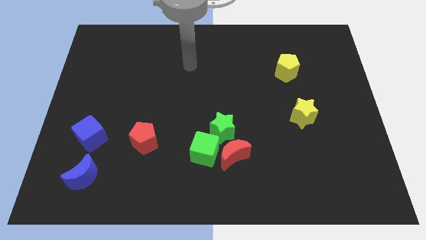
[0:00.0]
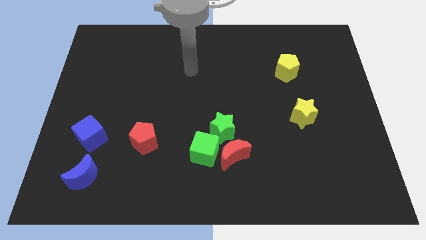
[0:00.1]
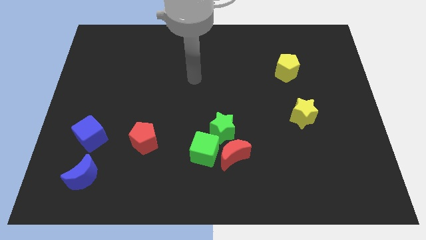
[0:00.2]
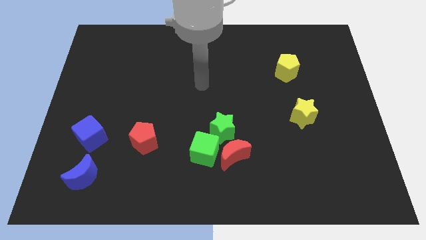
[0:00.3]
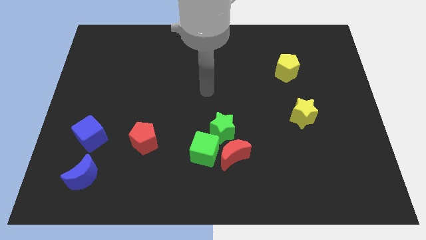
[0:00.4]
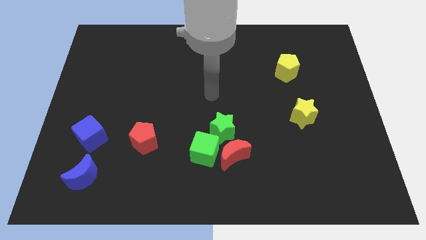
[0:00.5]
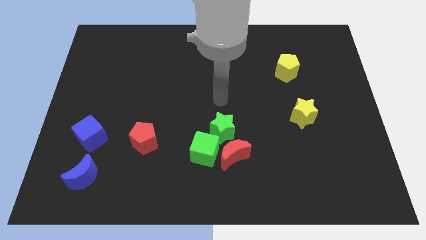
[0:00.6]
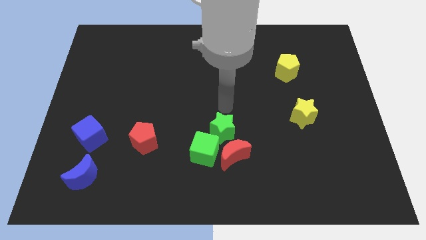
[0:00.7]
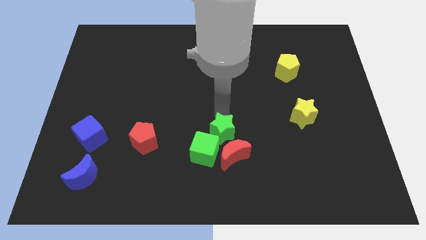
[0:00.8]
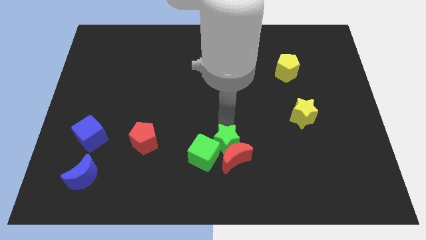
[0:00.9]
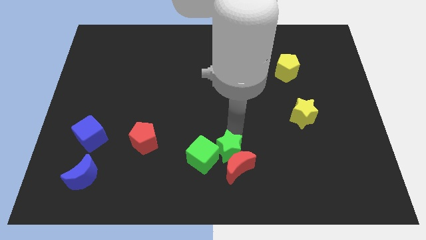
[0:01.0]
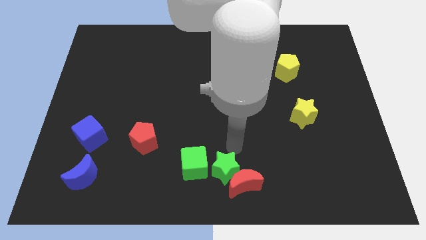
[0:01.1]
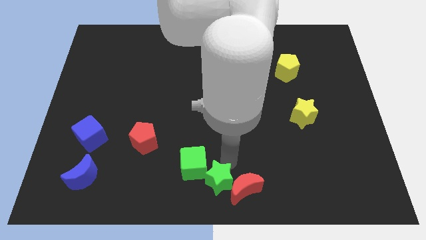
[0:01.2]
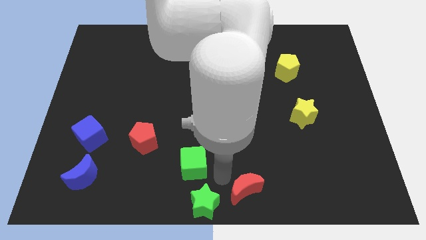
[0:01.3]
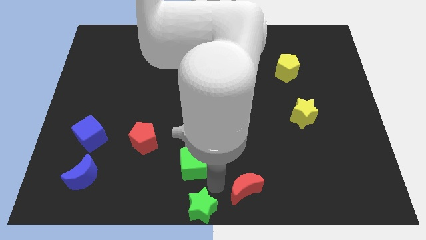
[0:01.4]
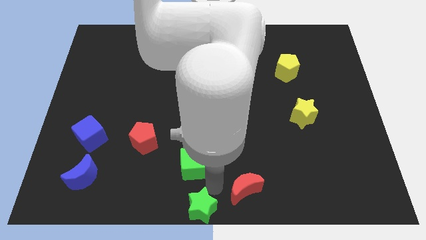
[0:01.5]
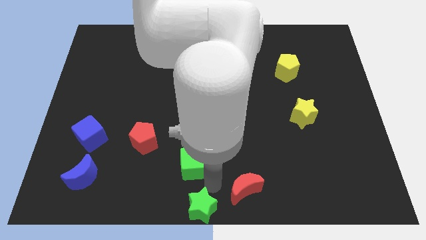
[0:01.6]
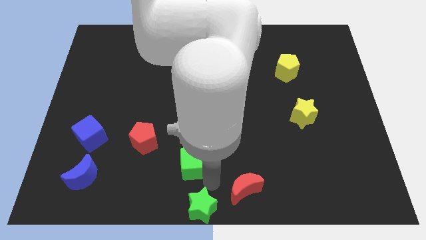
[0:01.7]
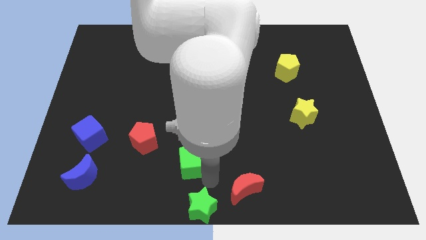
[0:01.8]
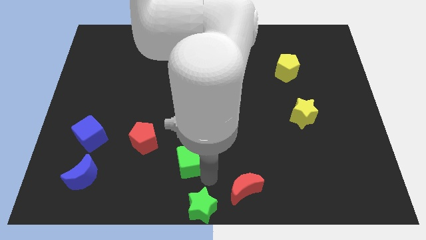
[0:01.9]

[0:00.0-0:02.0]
pull the green cube apart from the red moon and green star

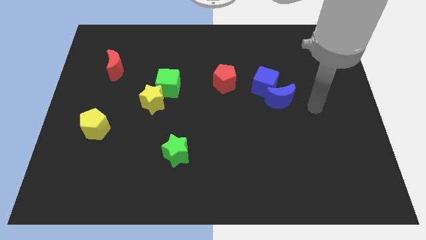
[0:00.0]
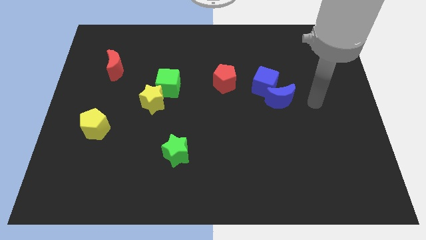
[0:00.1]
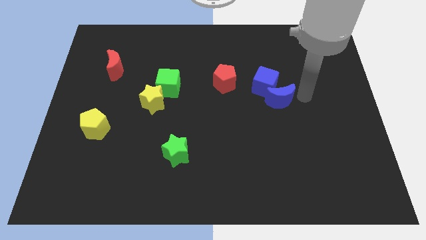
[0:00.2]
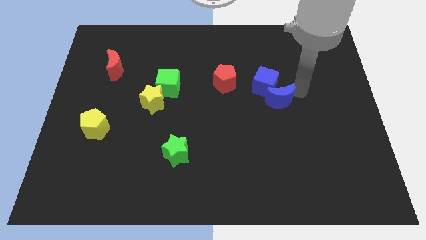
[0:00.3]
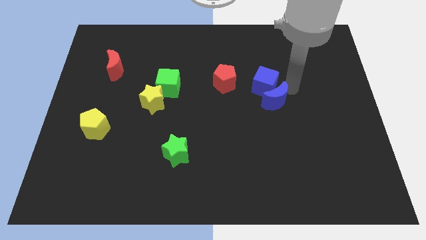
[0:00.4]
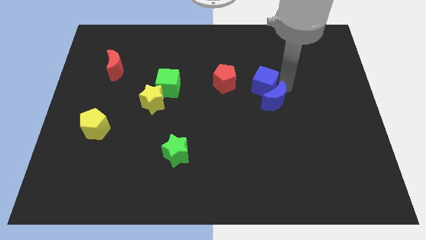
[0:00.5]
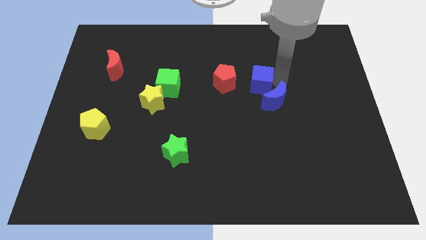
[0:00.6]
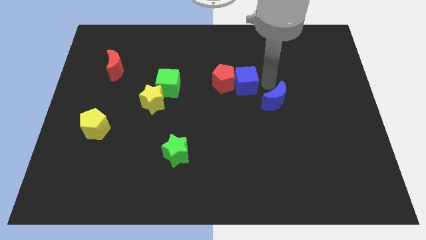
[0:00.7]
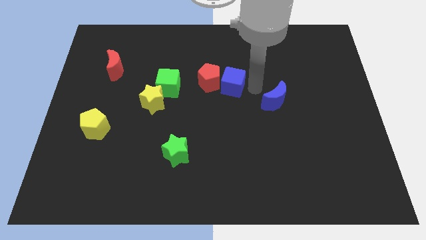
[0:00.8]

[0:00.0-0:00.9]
move the blue moon away from the blue cube

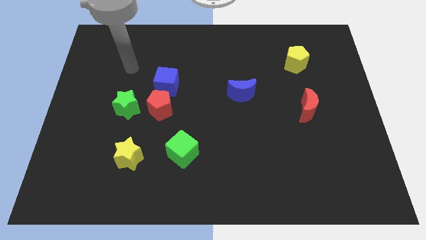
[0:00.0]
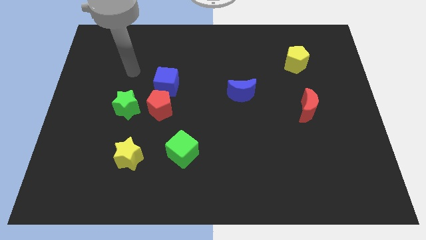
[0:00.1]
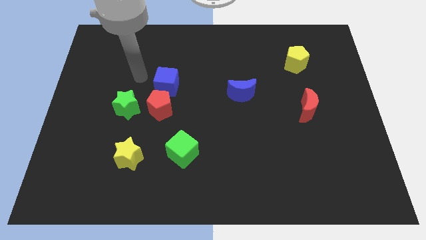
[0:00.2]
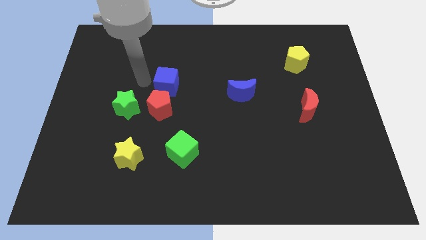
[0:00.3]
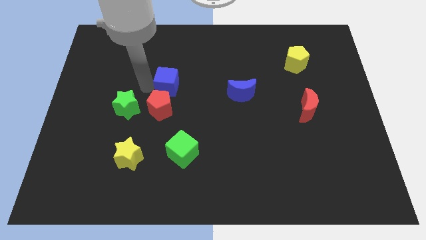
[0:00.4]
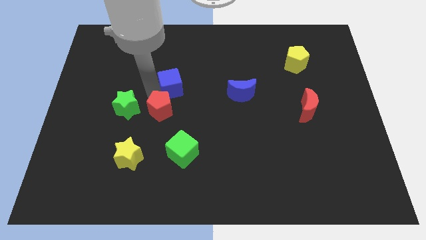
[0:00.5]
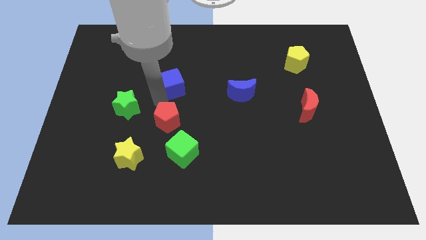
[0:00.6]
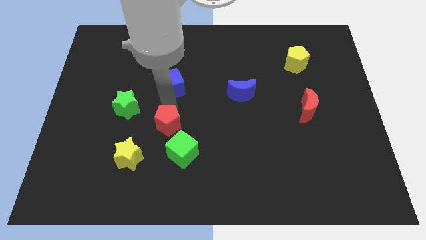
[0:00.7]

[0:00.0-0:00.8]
move the blue cube away from the red pentagon

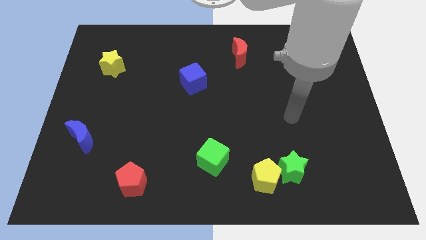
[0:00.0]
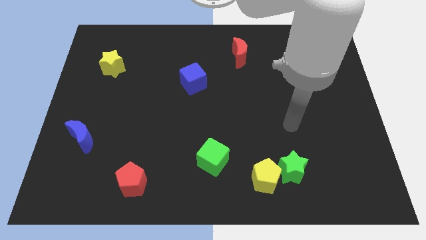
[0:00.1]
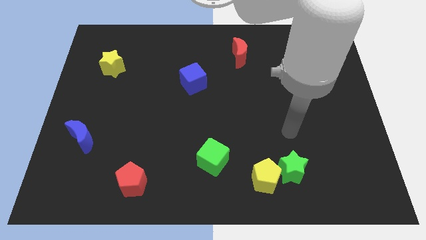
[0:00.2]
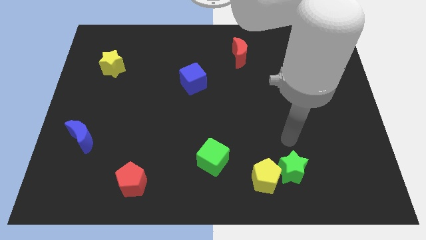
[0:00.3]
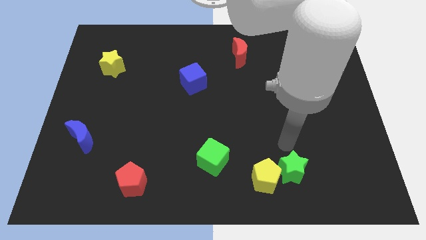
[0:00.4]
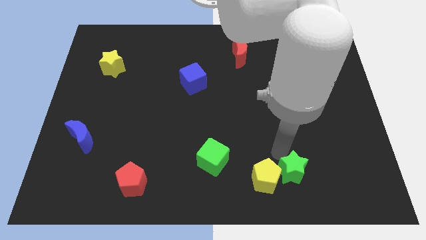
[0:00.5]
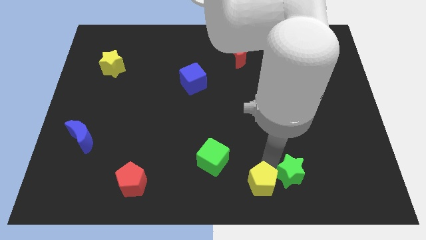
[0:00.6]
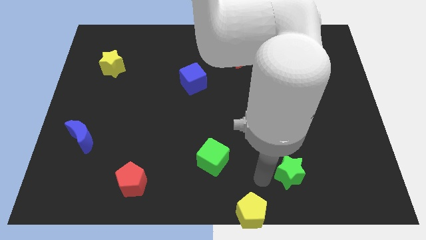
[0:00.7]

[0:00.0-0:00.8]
separate the green star from the yellow pentagon

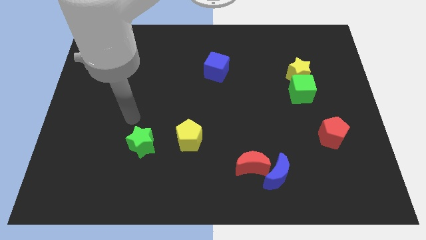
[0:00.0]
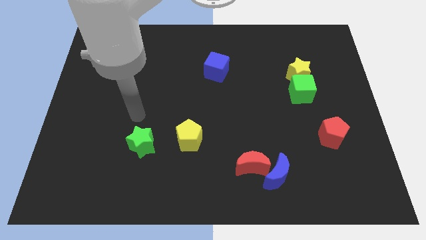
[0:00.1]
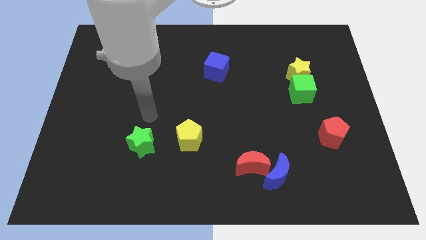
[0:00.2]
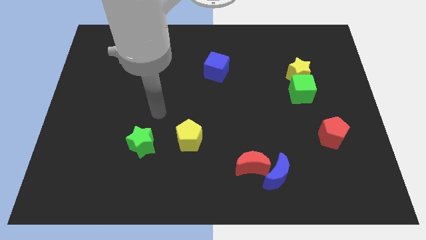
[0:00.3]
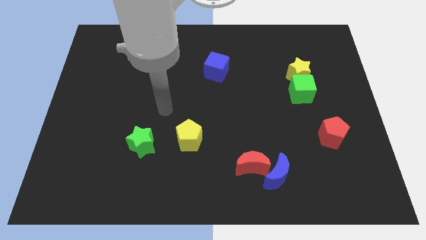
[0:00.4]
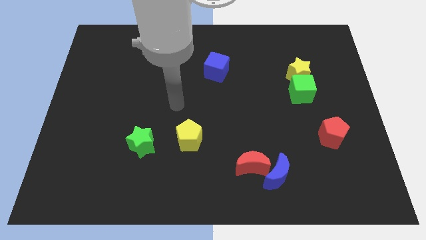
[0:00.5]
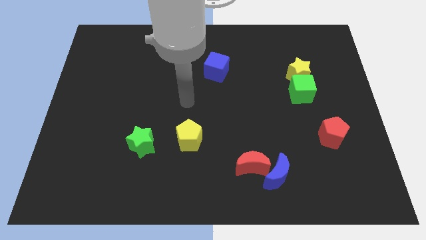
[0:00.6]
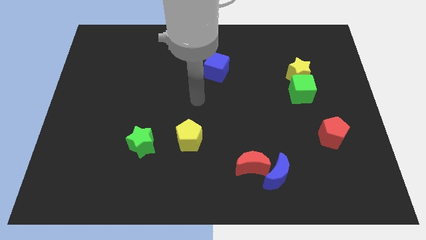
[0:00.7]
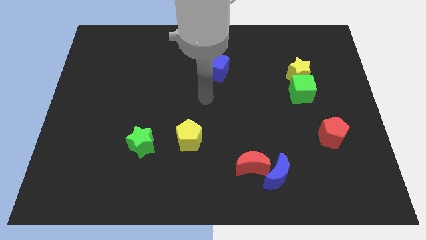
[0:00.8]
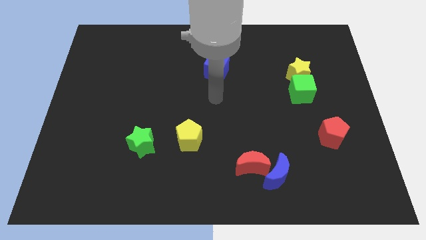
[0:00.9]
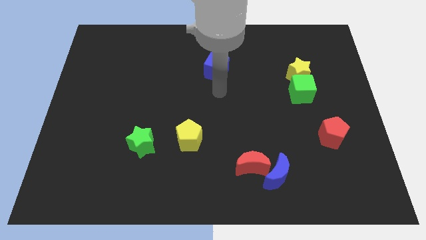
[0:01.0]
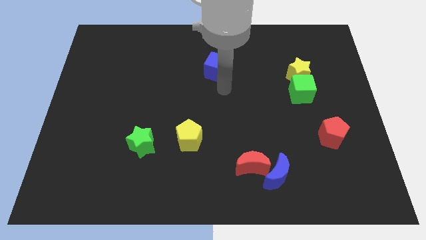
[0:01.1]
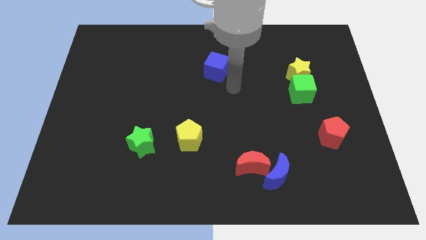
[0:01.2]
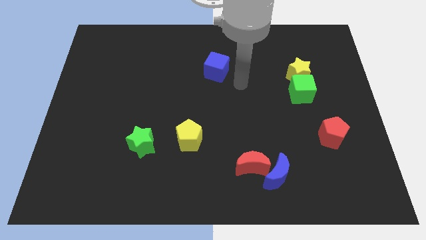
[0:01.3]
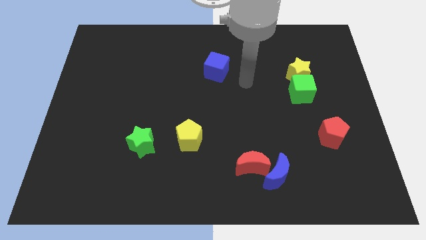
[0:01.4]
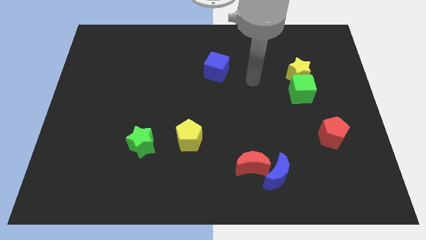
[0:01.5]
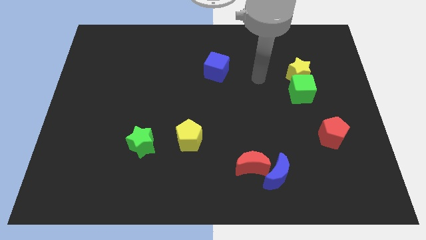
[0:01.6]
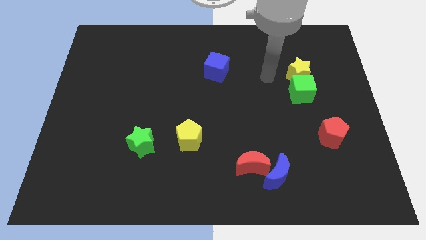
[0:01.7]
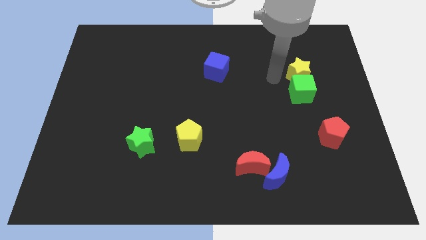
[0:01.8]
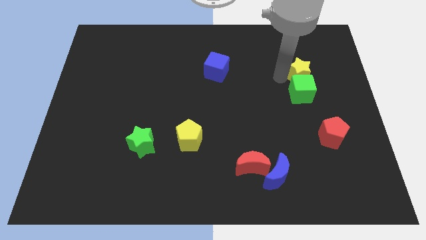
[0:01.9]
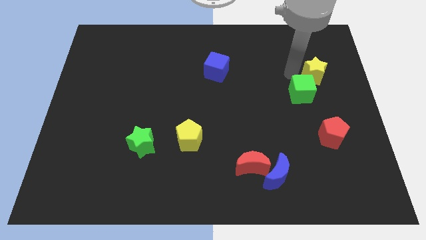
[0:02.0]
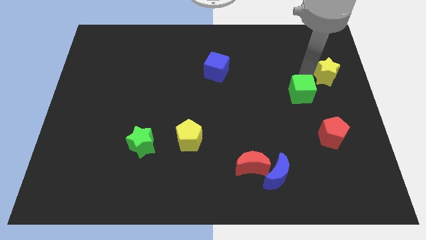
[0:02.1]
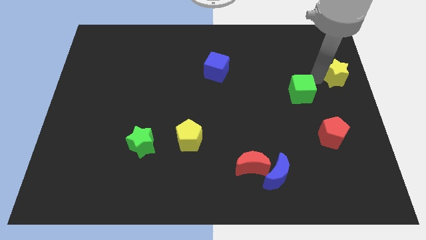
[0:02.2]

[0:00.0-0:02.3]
pull the green cube apart from the yellow star

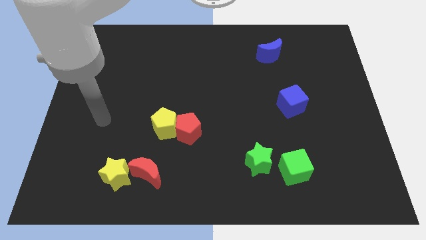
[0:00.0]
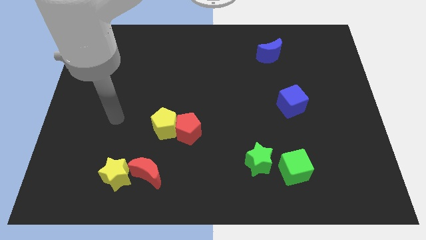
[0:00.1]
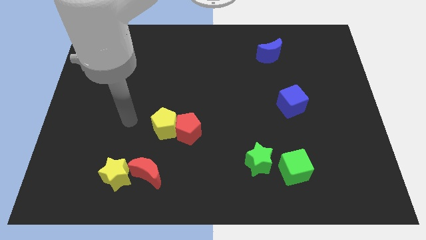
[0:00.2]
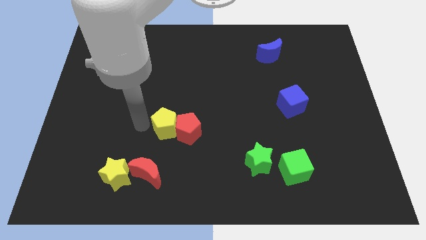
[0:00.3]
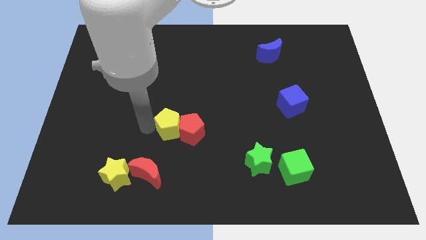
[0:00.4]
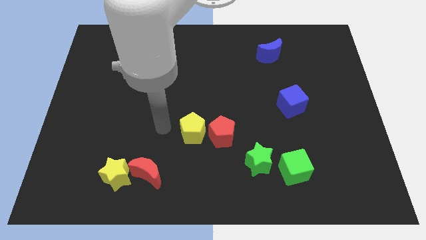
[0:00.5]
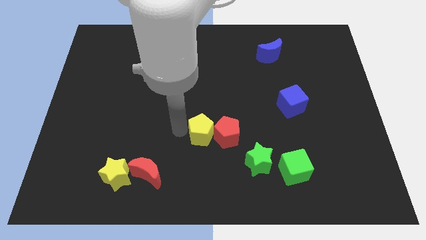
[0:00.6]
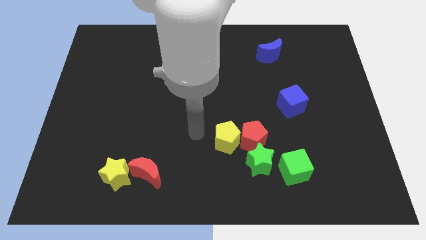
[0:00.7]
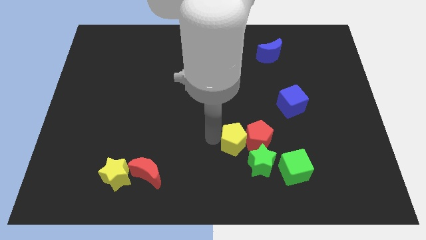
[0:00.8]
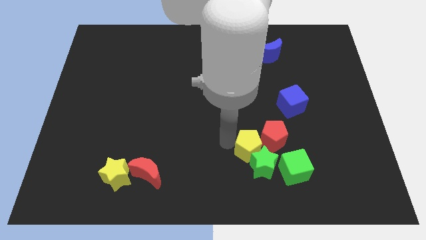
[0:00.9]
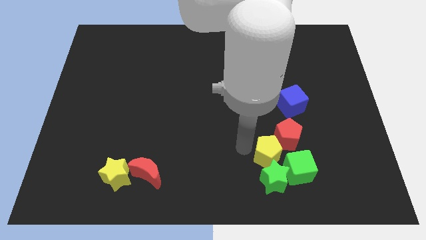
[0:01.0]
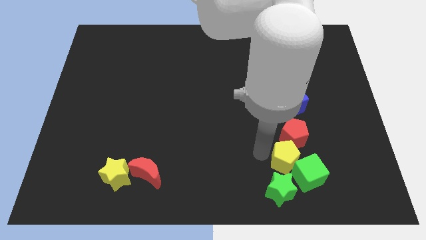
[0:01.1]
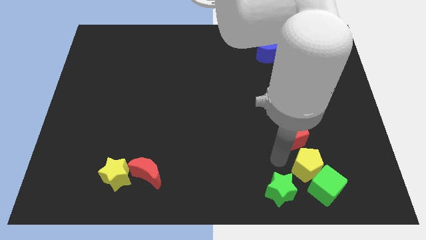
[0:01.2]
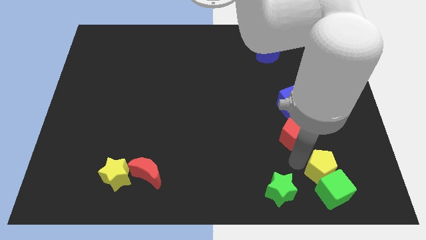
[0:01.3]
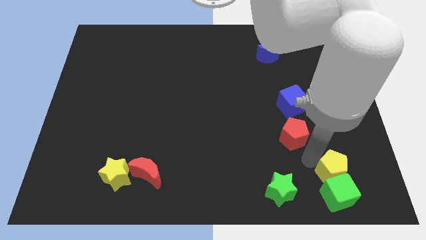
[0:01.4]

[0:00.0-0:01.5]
move the red pentagon away from the yellow pentagon

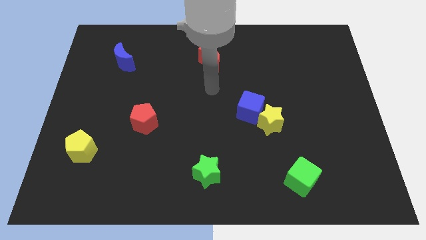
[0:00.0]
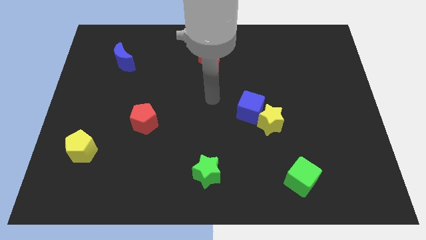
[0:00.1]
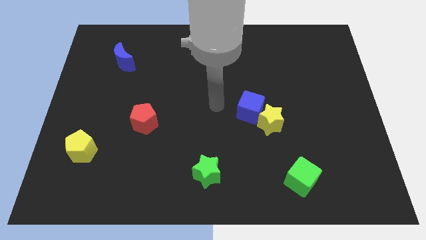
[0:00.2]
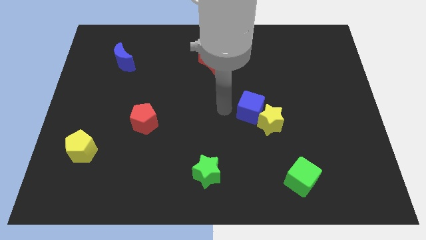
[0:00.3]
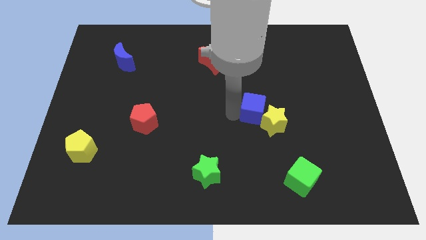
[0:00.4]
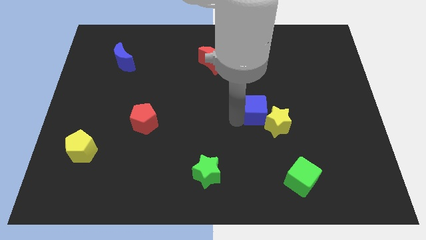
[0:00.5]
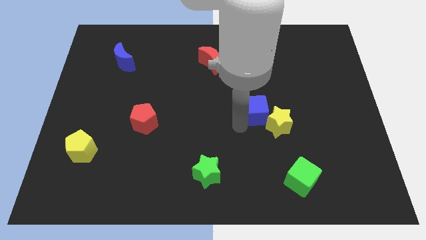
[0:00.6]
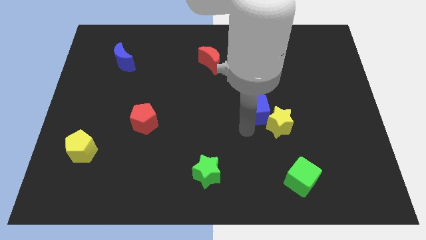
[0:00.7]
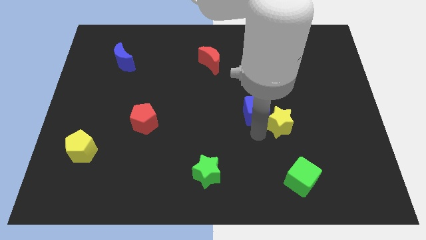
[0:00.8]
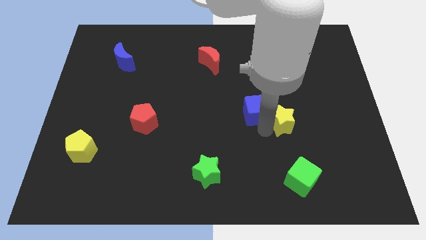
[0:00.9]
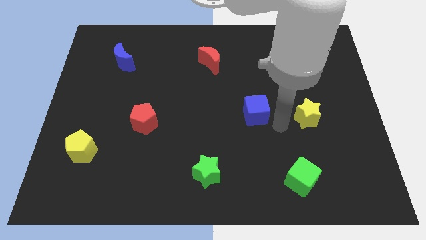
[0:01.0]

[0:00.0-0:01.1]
pull the blue cube apart from the yellow star

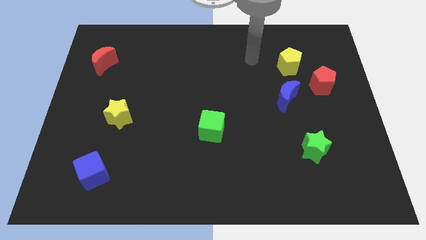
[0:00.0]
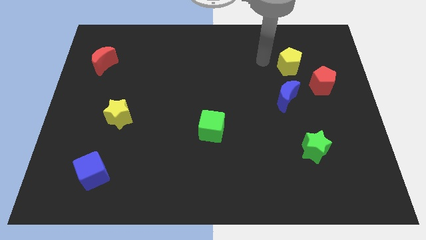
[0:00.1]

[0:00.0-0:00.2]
pull the red pentagon apart from the yellow pentagon
